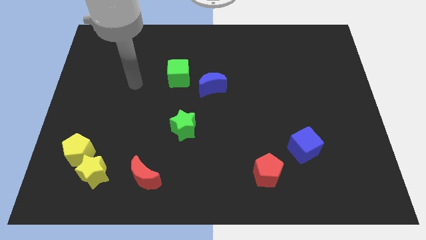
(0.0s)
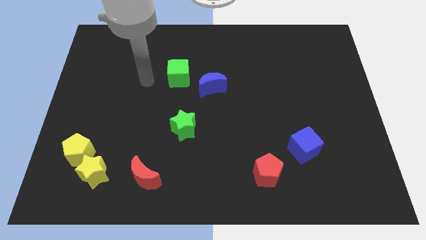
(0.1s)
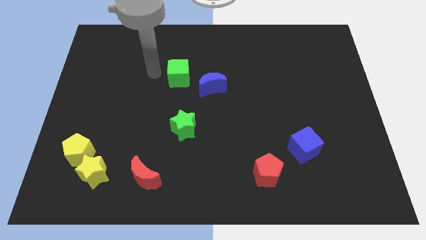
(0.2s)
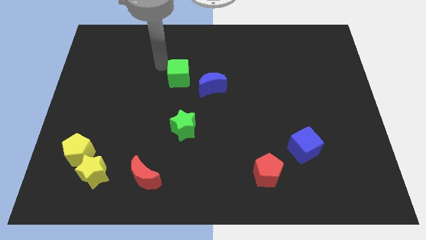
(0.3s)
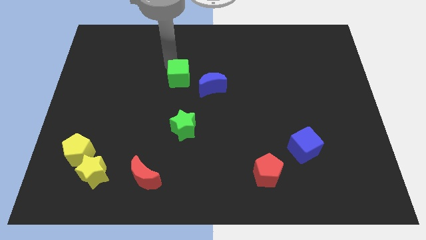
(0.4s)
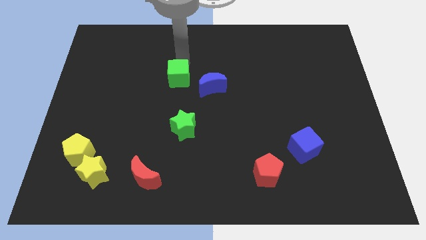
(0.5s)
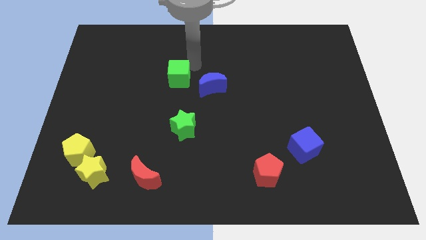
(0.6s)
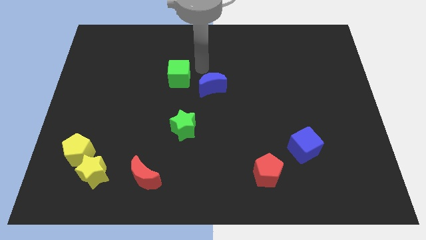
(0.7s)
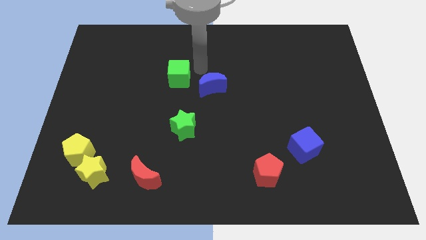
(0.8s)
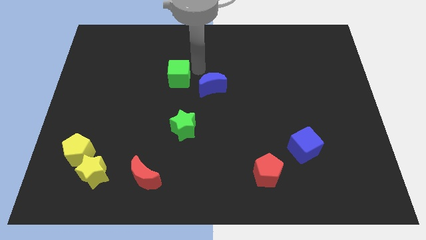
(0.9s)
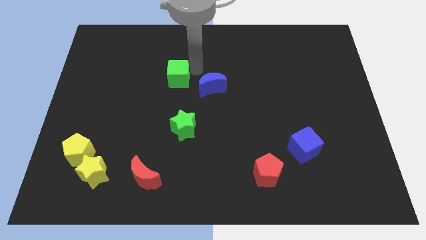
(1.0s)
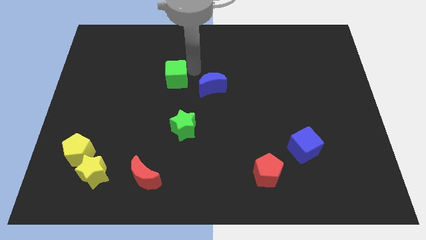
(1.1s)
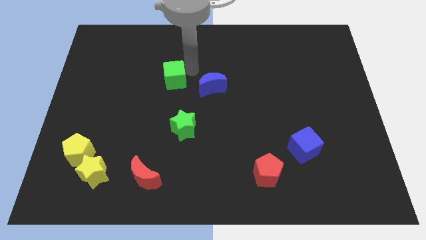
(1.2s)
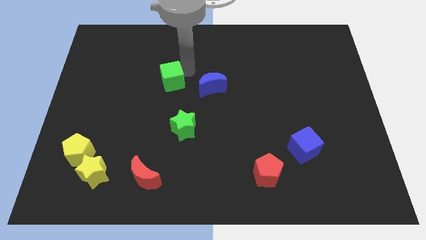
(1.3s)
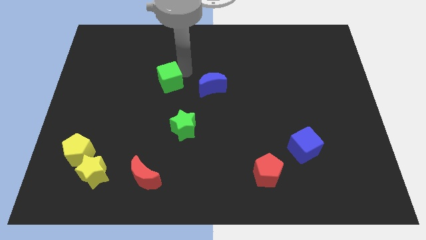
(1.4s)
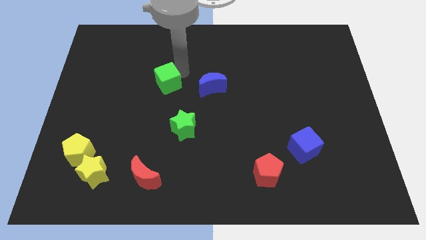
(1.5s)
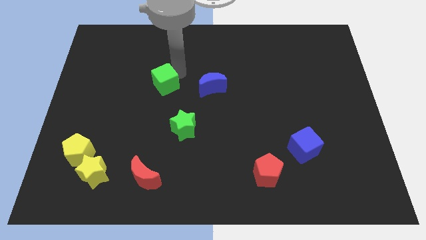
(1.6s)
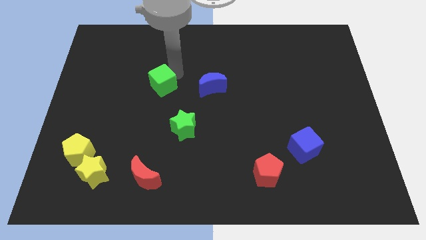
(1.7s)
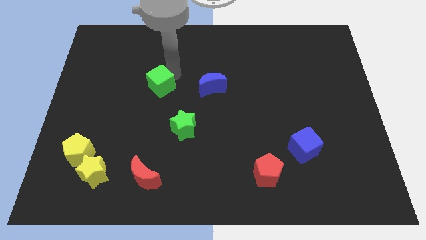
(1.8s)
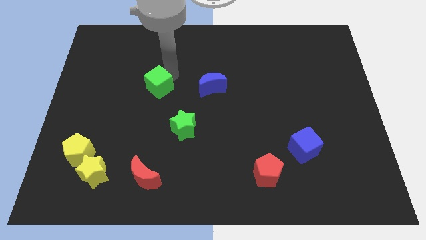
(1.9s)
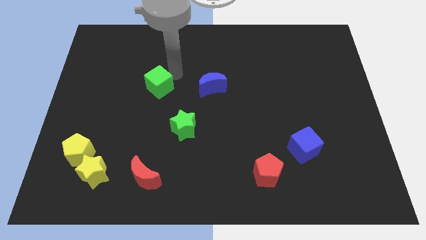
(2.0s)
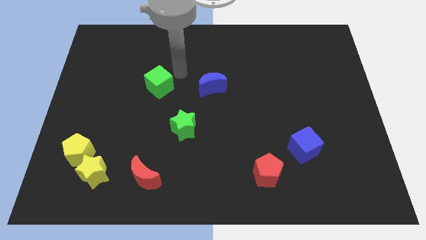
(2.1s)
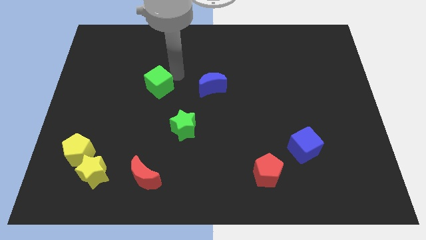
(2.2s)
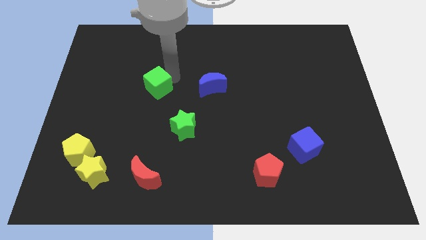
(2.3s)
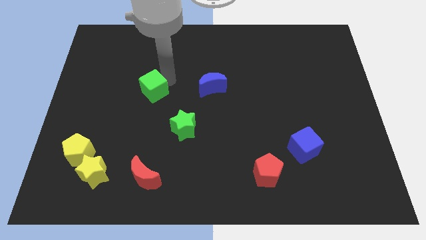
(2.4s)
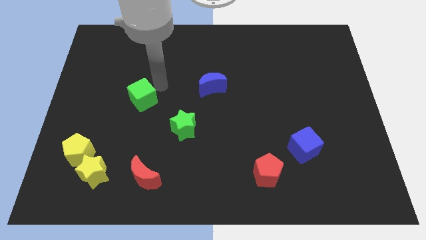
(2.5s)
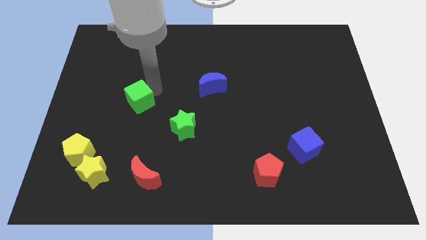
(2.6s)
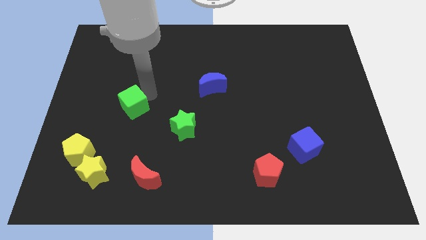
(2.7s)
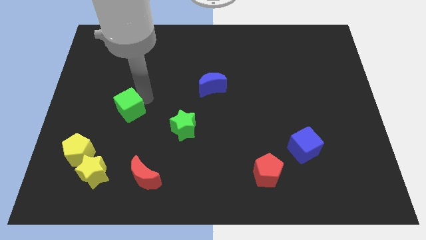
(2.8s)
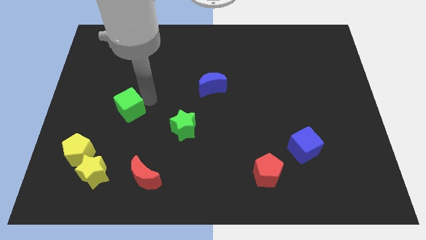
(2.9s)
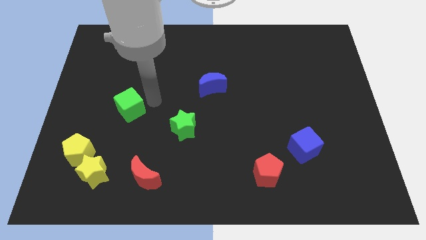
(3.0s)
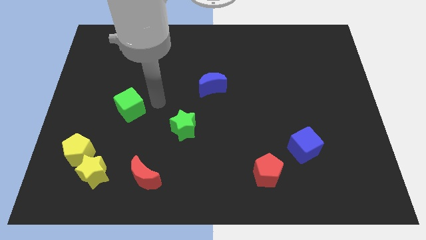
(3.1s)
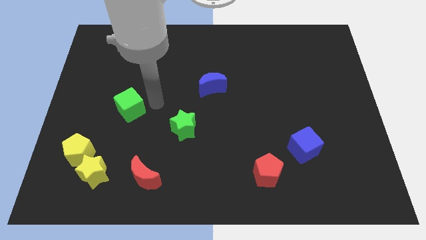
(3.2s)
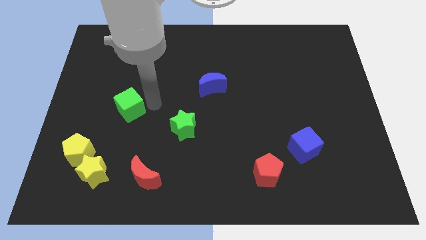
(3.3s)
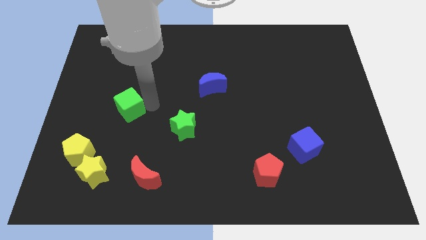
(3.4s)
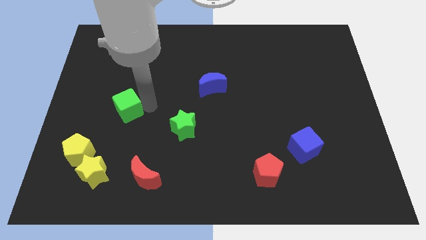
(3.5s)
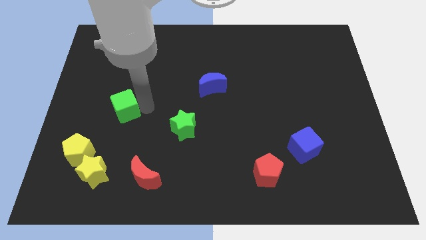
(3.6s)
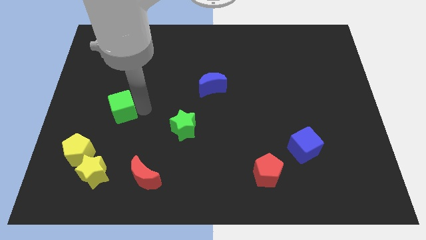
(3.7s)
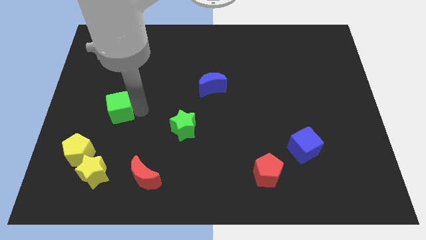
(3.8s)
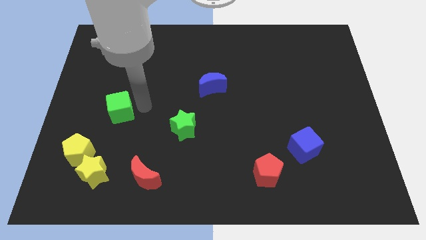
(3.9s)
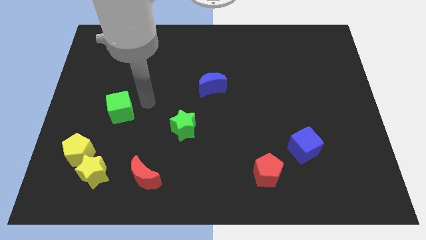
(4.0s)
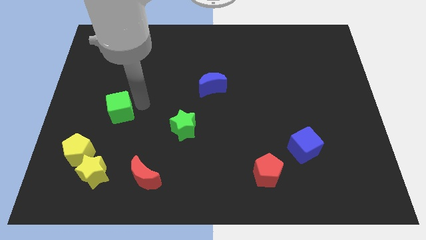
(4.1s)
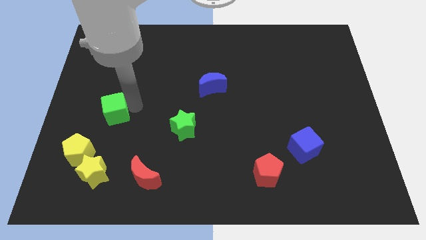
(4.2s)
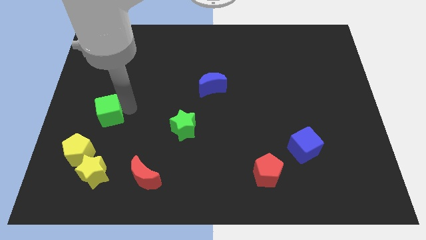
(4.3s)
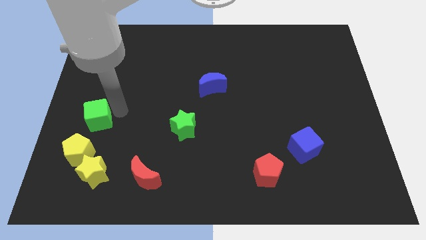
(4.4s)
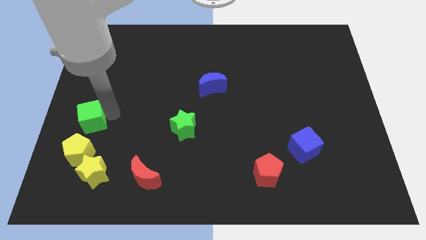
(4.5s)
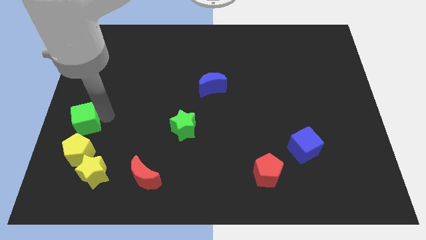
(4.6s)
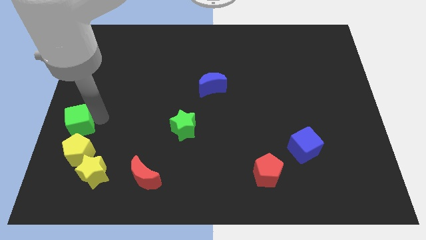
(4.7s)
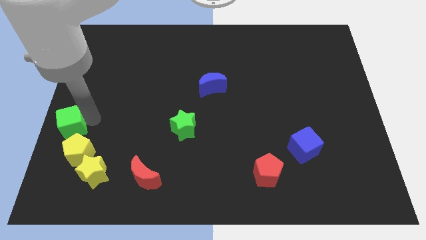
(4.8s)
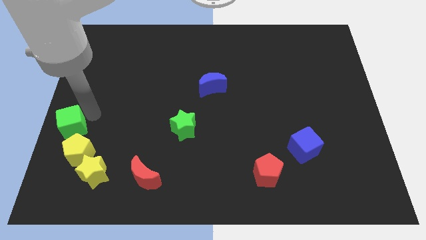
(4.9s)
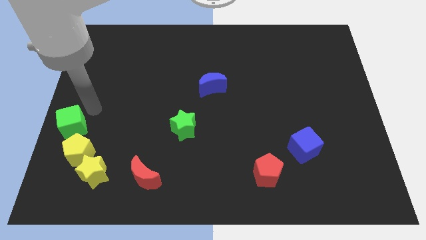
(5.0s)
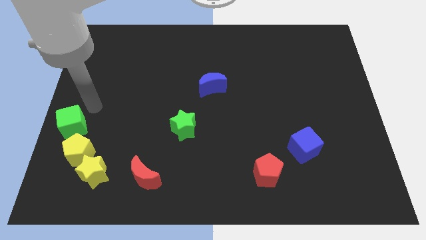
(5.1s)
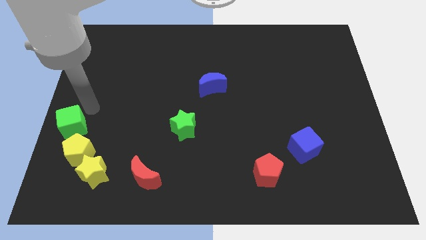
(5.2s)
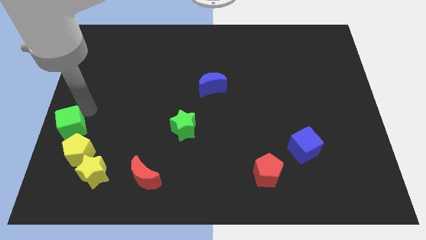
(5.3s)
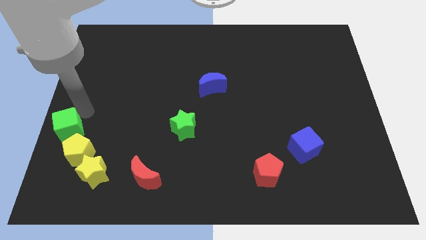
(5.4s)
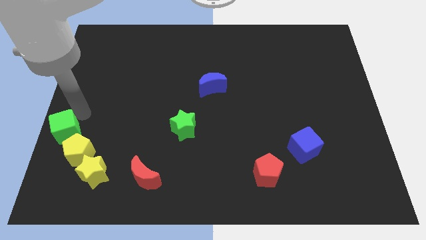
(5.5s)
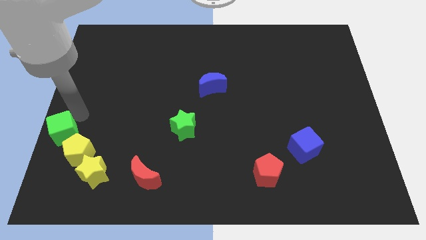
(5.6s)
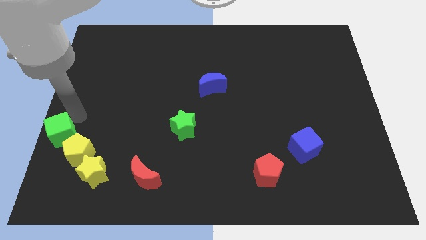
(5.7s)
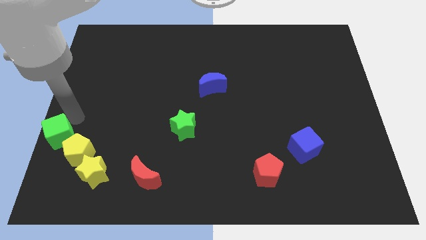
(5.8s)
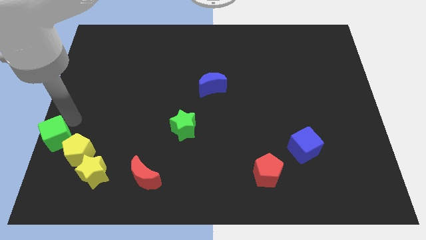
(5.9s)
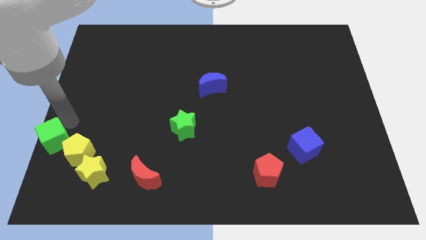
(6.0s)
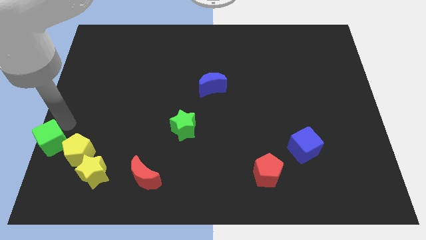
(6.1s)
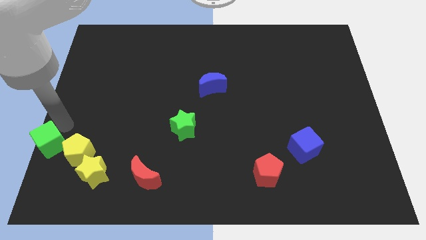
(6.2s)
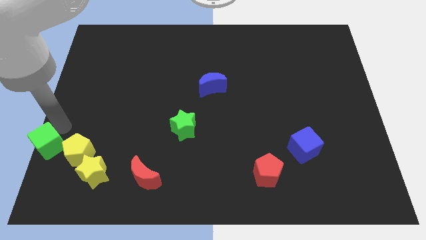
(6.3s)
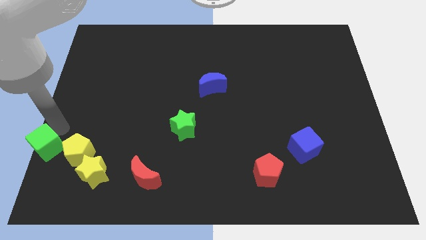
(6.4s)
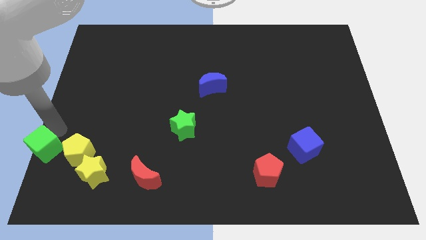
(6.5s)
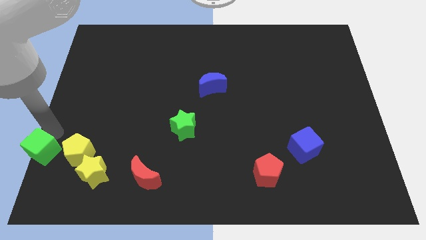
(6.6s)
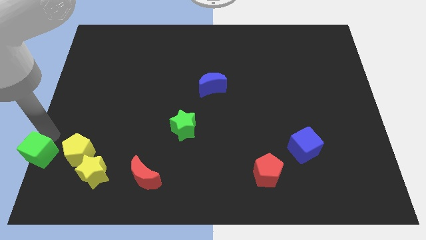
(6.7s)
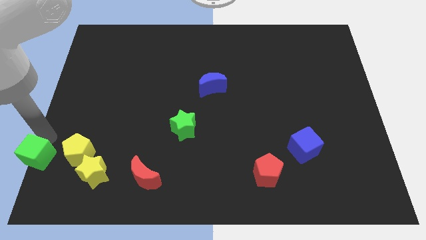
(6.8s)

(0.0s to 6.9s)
put the green cube to the bottom left of the board

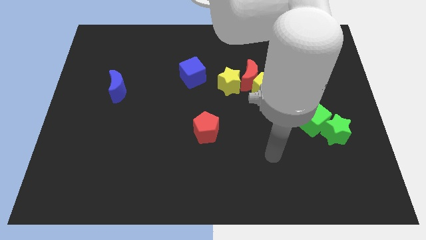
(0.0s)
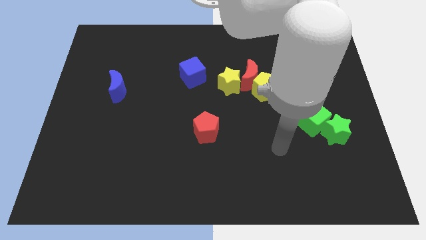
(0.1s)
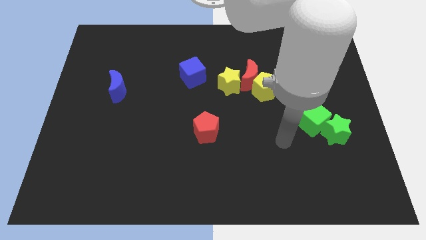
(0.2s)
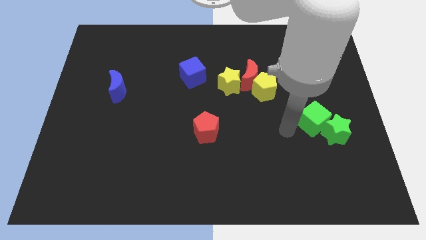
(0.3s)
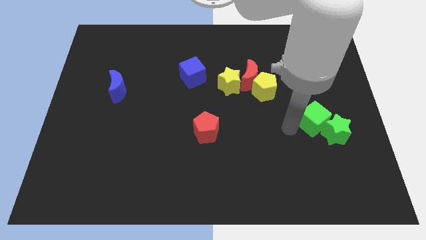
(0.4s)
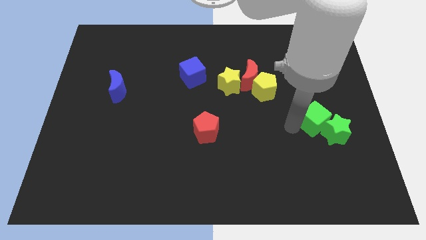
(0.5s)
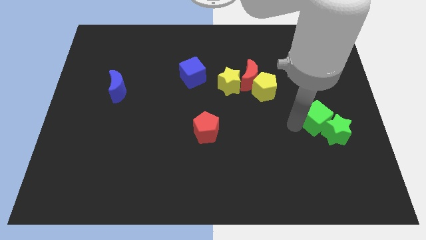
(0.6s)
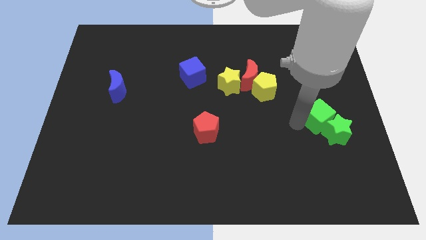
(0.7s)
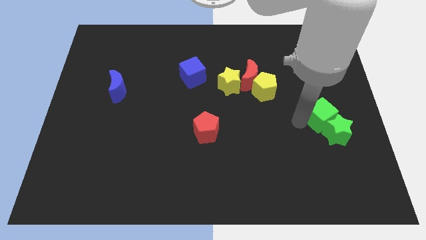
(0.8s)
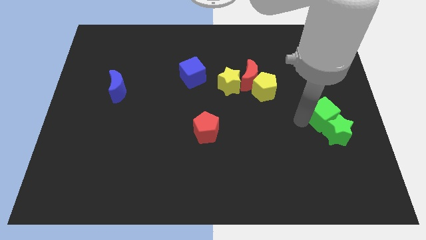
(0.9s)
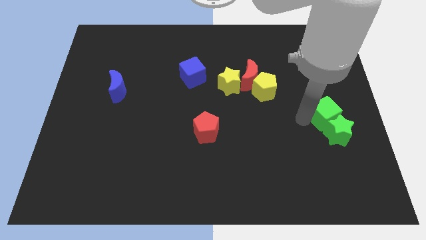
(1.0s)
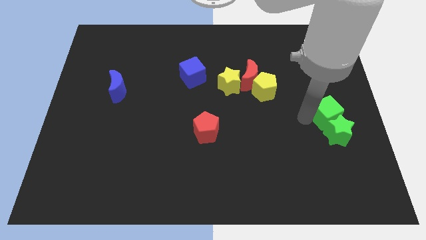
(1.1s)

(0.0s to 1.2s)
slide the green cube to the right side
